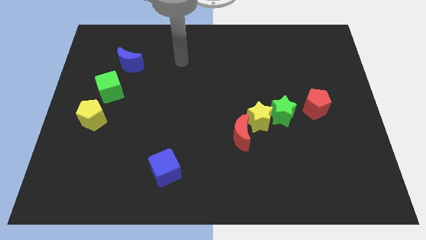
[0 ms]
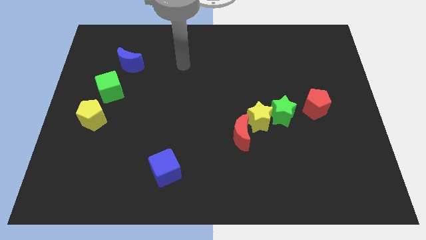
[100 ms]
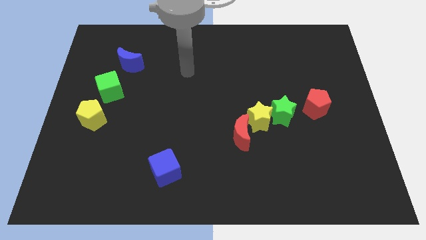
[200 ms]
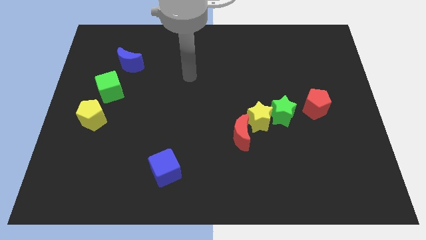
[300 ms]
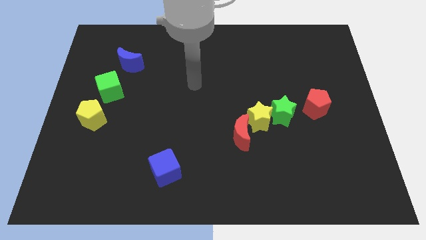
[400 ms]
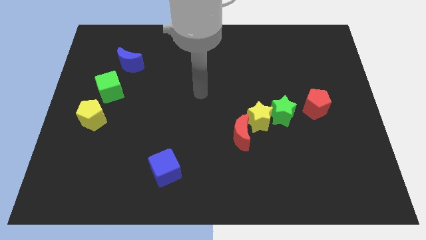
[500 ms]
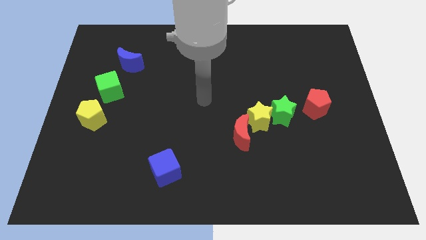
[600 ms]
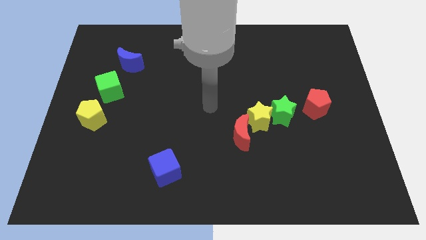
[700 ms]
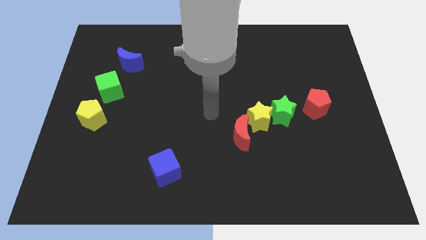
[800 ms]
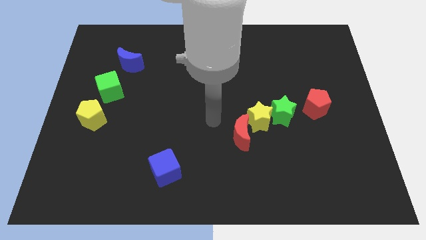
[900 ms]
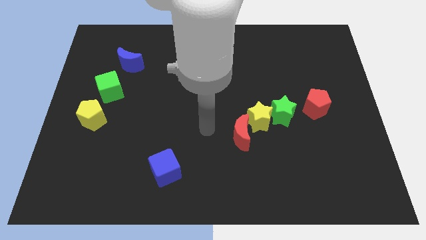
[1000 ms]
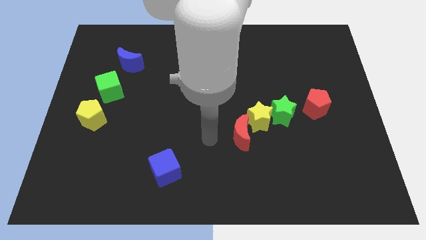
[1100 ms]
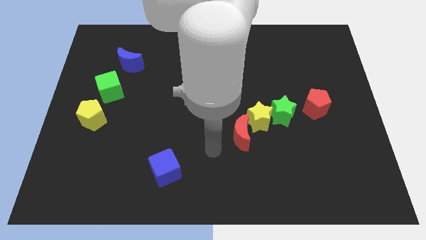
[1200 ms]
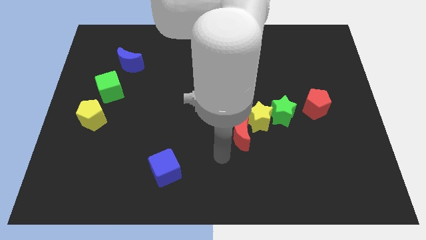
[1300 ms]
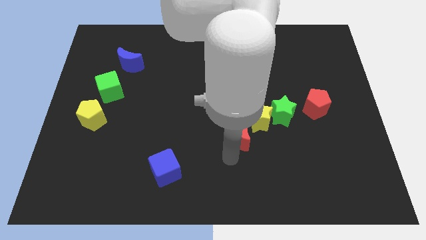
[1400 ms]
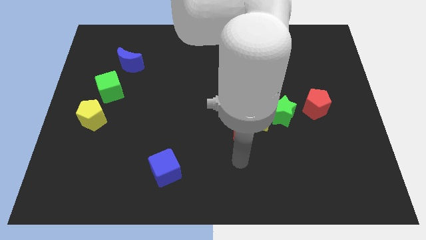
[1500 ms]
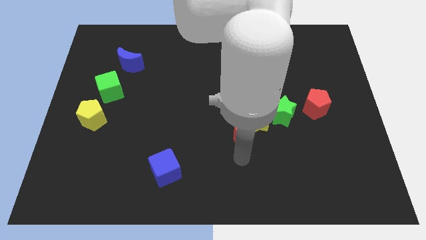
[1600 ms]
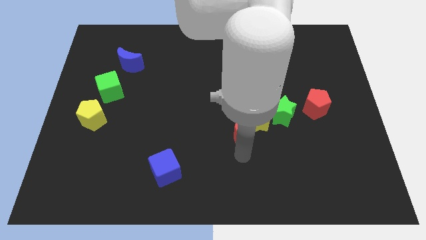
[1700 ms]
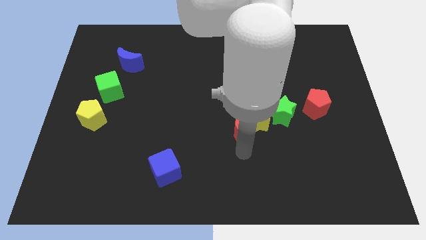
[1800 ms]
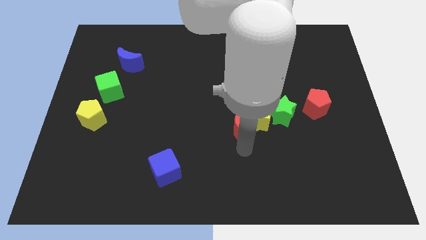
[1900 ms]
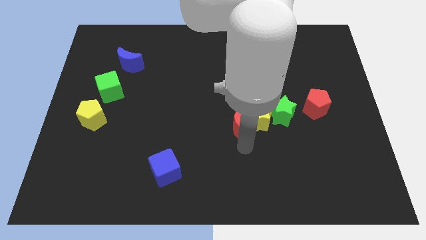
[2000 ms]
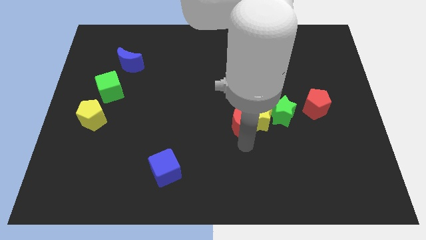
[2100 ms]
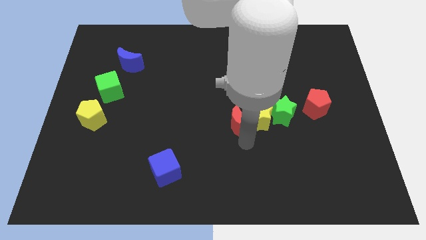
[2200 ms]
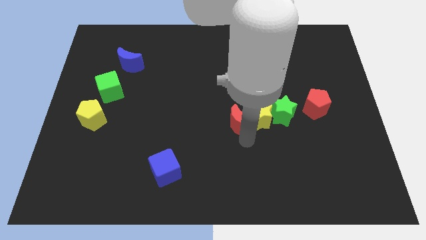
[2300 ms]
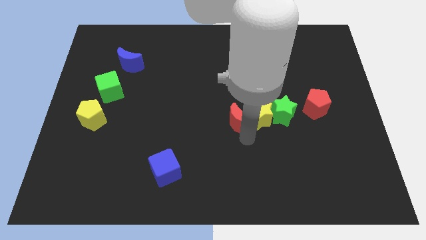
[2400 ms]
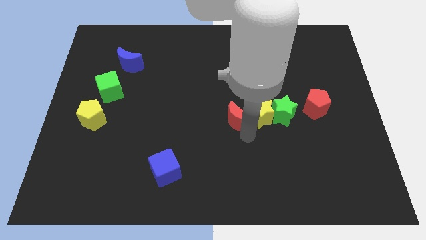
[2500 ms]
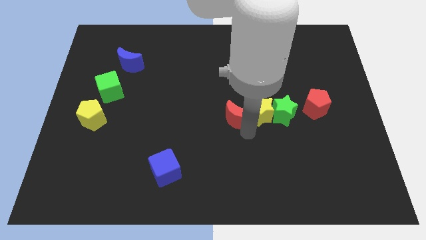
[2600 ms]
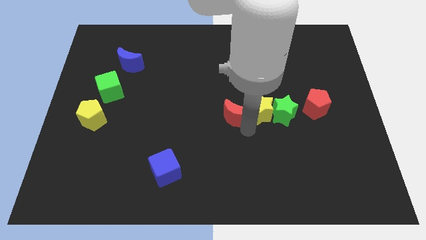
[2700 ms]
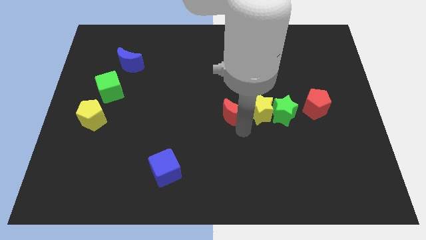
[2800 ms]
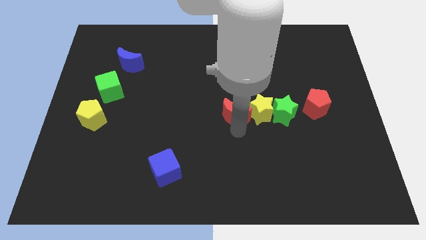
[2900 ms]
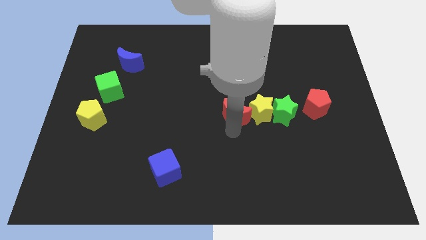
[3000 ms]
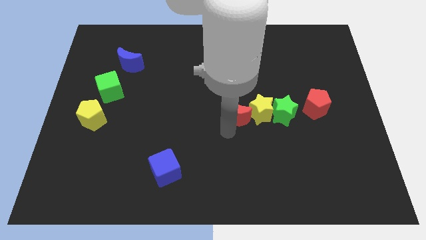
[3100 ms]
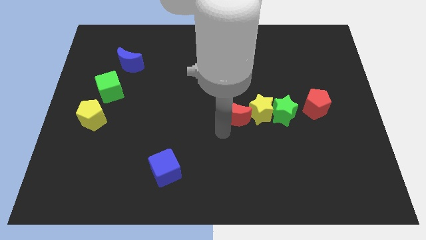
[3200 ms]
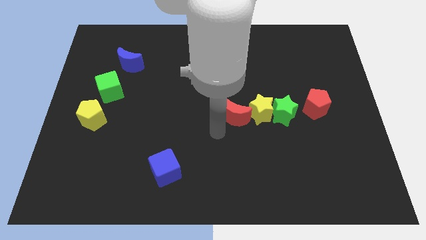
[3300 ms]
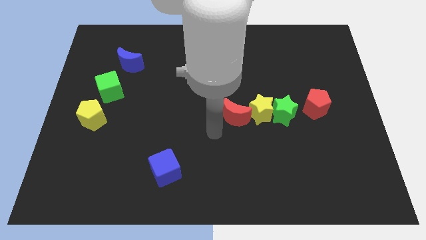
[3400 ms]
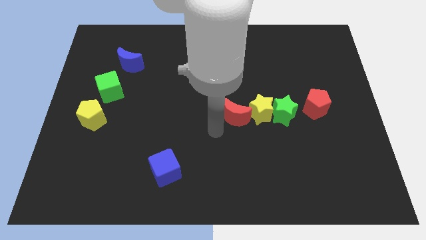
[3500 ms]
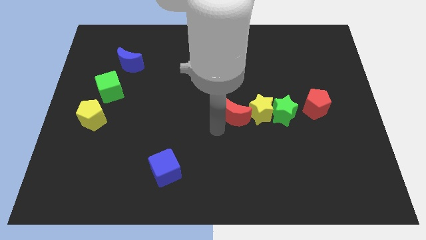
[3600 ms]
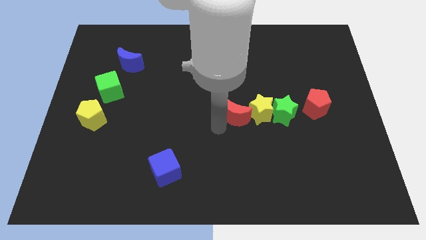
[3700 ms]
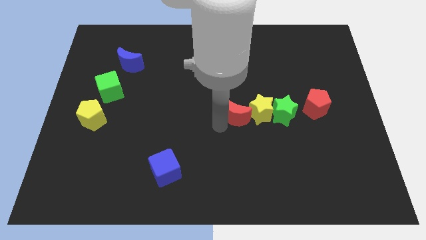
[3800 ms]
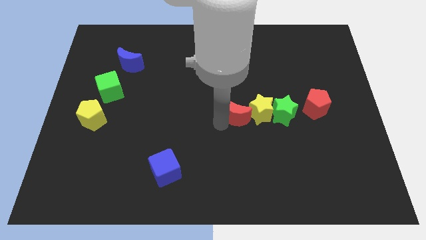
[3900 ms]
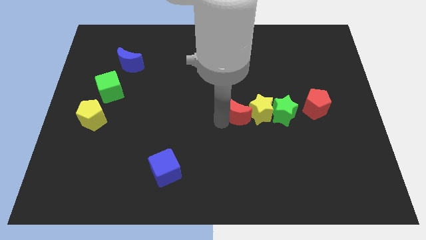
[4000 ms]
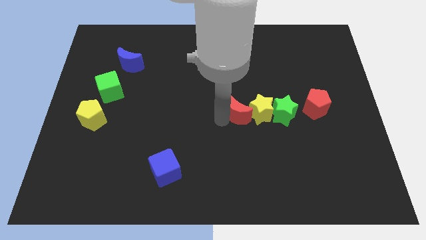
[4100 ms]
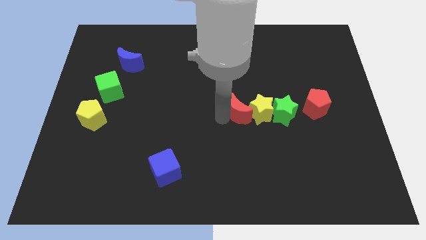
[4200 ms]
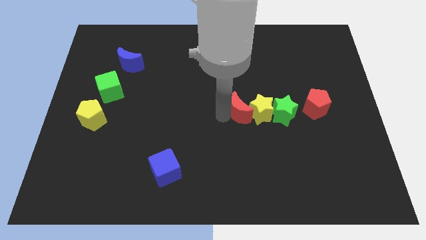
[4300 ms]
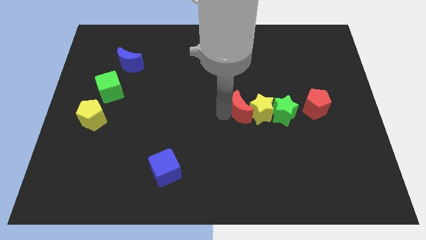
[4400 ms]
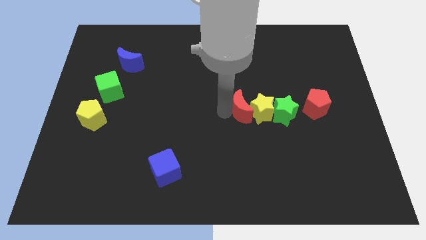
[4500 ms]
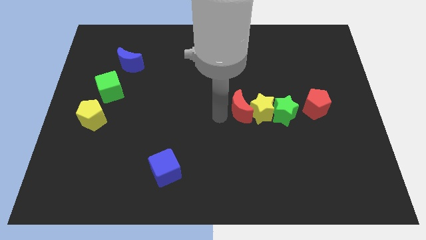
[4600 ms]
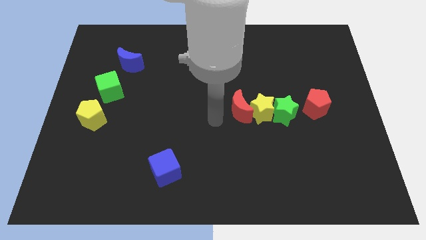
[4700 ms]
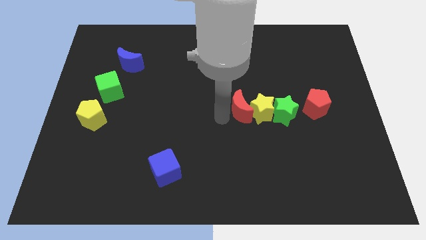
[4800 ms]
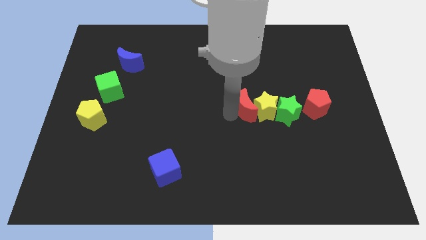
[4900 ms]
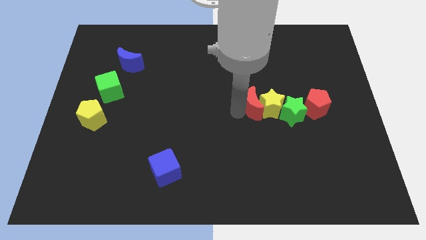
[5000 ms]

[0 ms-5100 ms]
slide the red moon slightly up and right diagonally

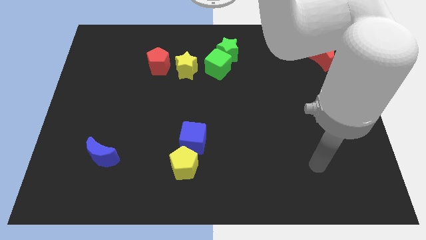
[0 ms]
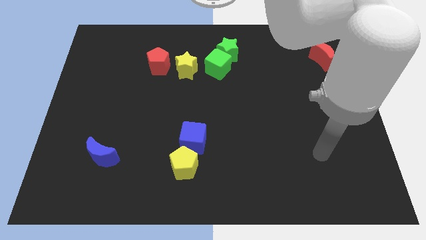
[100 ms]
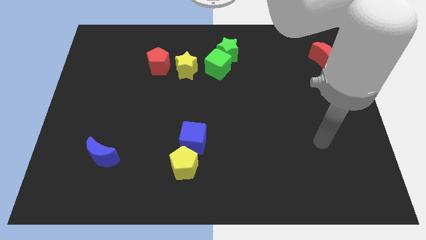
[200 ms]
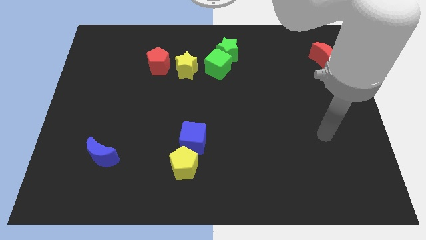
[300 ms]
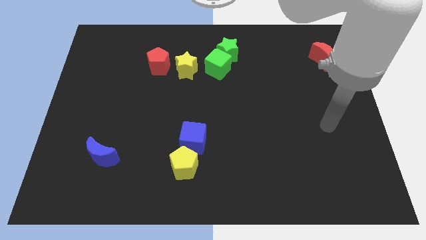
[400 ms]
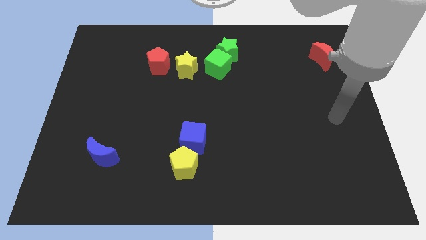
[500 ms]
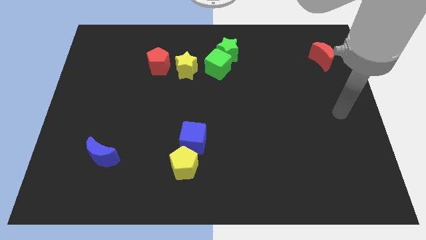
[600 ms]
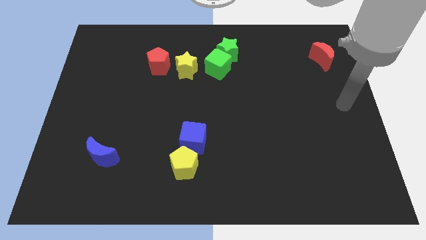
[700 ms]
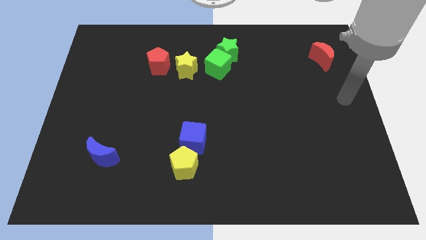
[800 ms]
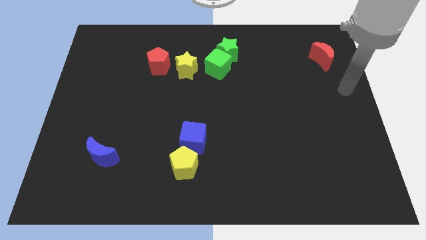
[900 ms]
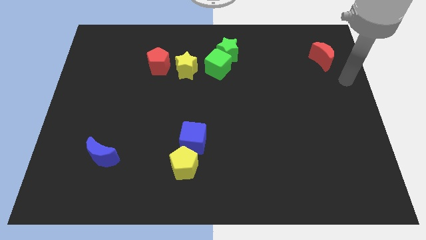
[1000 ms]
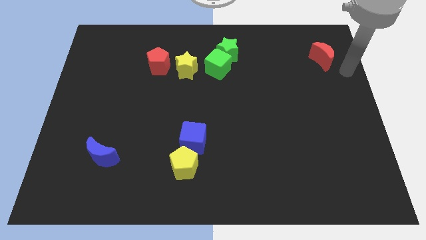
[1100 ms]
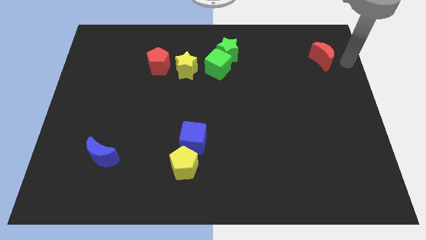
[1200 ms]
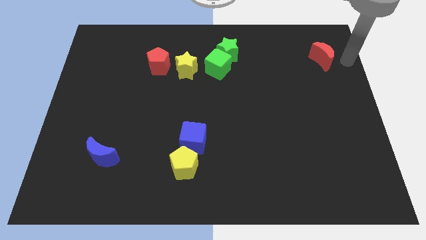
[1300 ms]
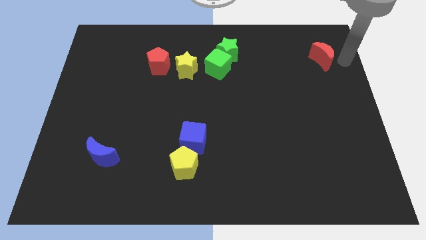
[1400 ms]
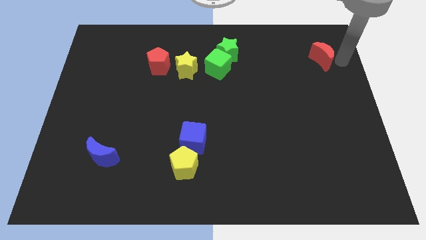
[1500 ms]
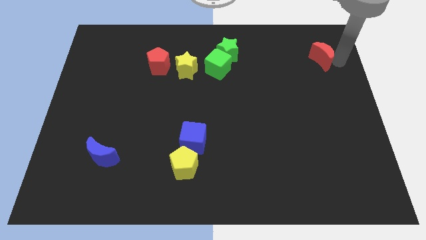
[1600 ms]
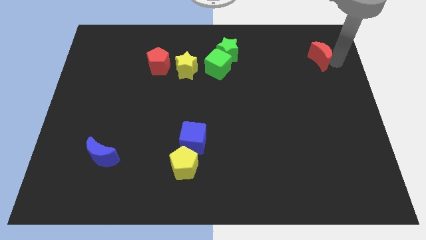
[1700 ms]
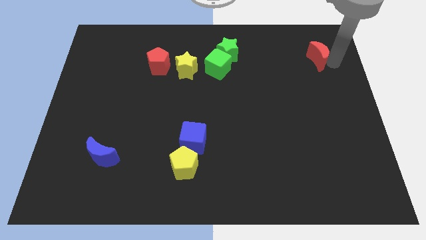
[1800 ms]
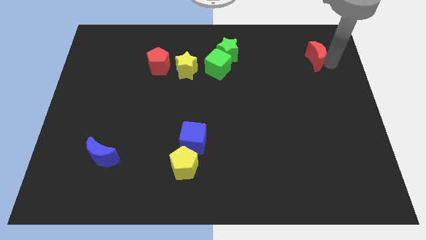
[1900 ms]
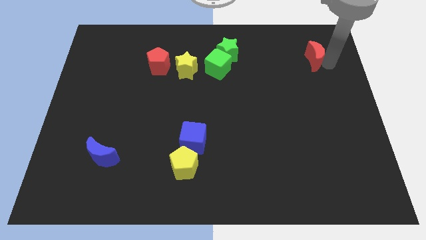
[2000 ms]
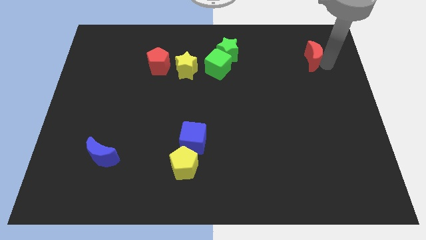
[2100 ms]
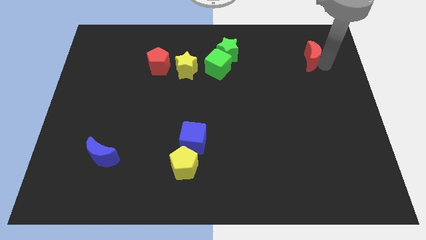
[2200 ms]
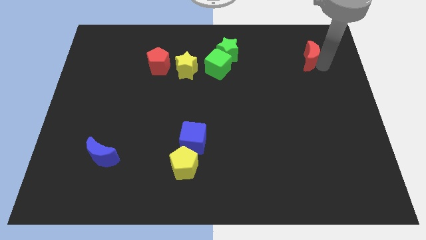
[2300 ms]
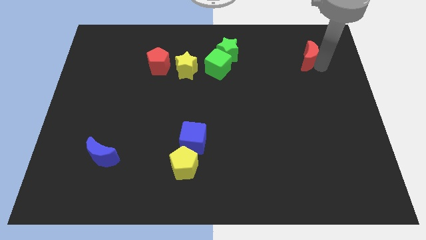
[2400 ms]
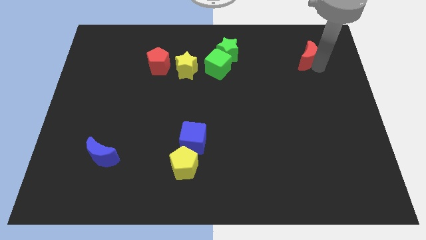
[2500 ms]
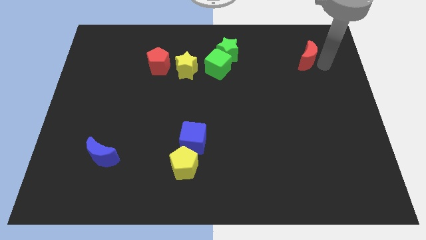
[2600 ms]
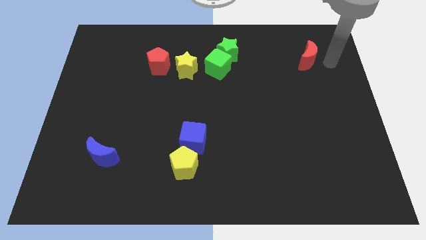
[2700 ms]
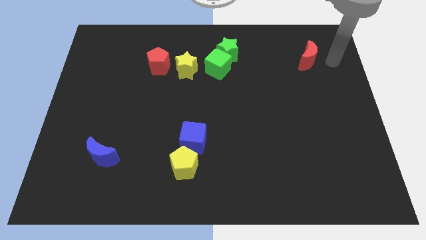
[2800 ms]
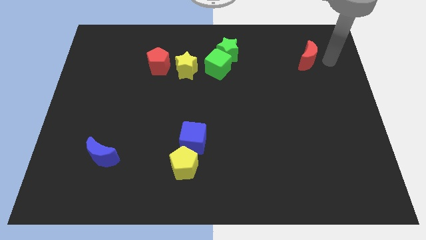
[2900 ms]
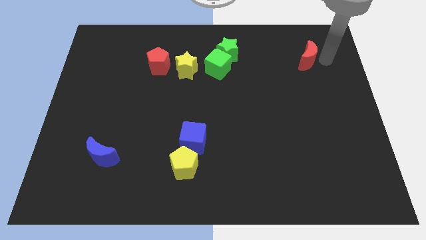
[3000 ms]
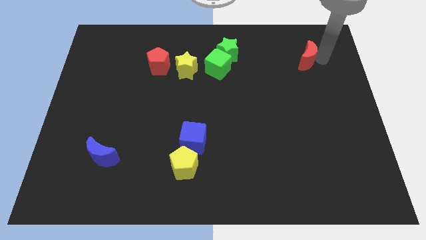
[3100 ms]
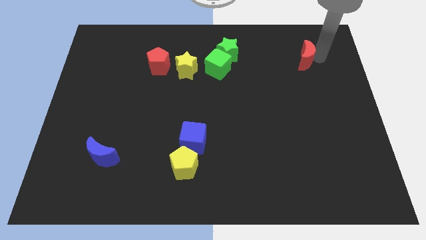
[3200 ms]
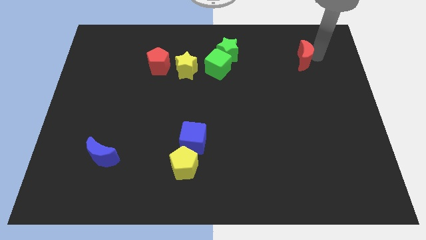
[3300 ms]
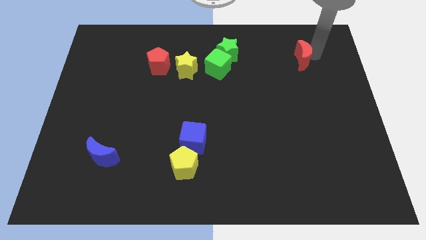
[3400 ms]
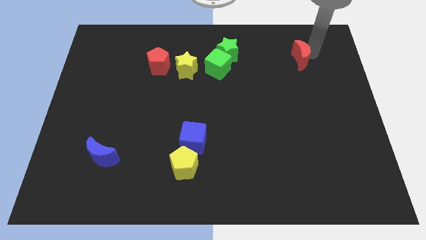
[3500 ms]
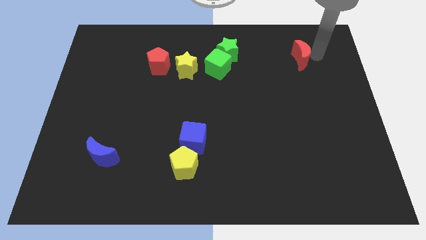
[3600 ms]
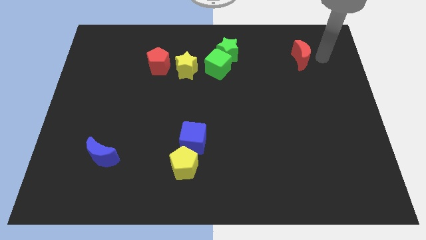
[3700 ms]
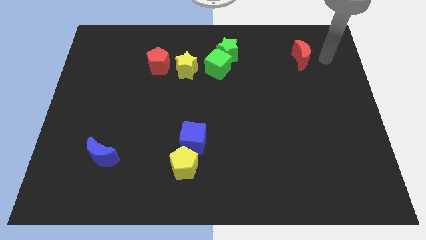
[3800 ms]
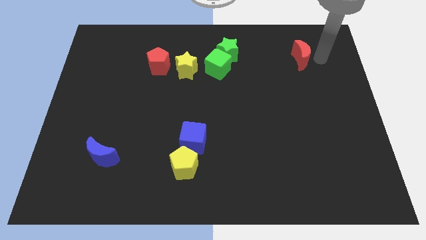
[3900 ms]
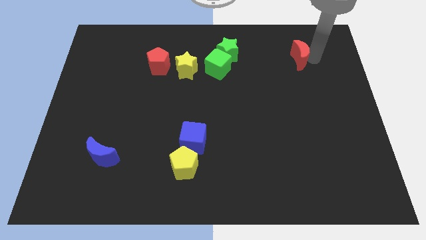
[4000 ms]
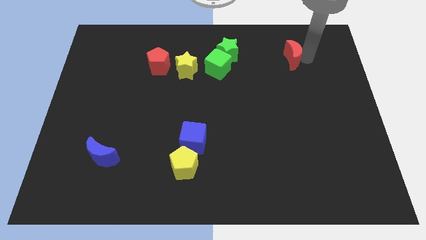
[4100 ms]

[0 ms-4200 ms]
move the red moon a bit left
